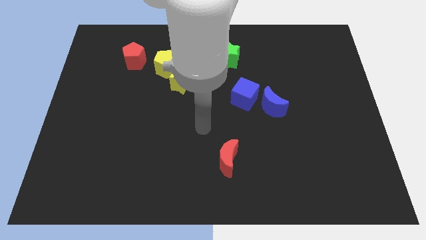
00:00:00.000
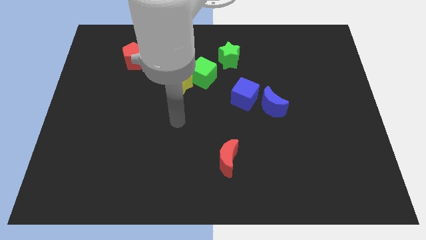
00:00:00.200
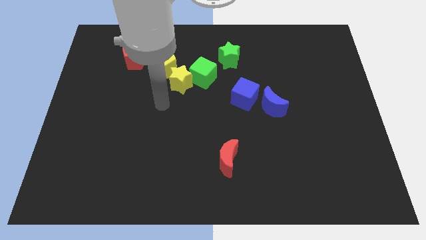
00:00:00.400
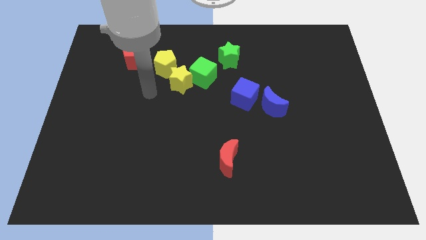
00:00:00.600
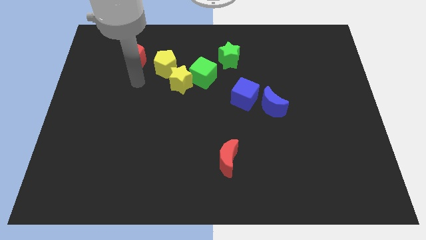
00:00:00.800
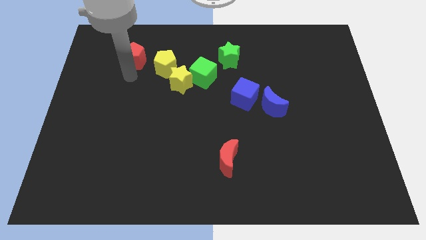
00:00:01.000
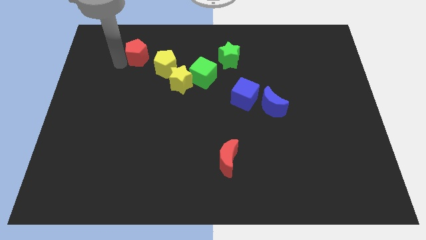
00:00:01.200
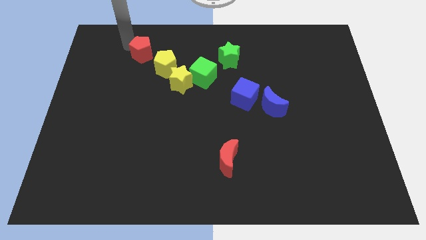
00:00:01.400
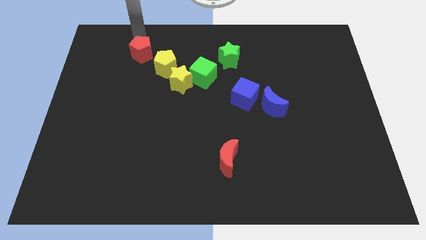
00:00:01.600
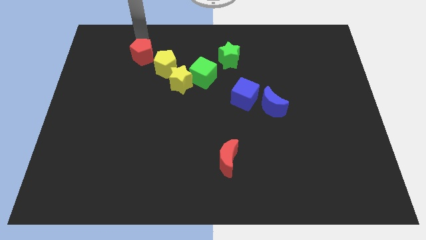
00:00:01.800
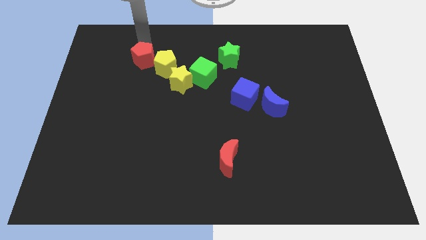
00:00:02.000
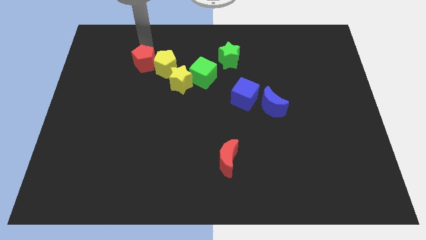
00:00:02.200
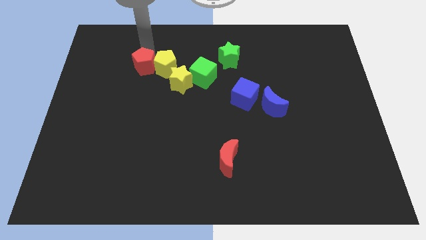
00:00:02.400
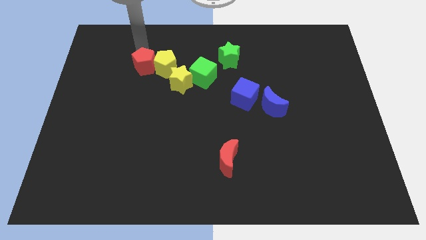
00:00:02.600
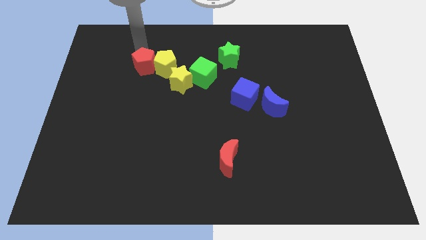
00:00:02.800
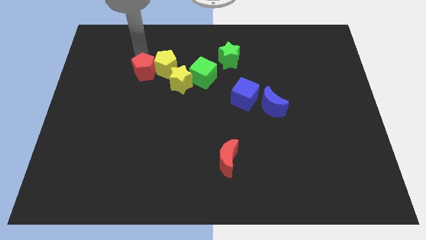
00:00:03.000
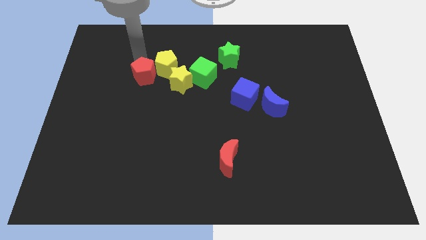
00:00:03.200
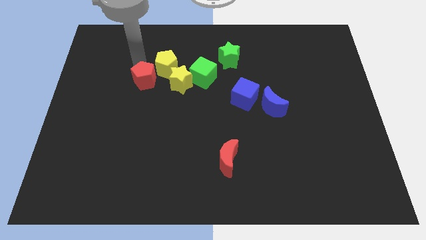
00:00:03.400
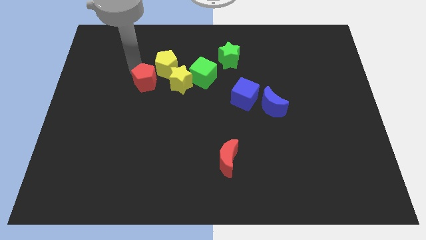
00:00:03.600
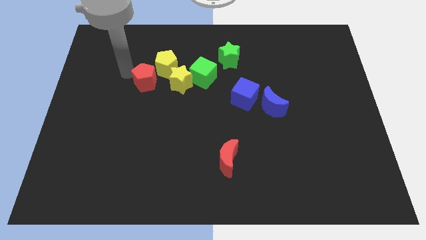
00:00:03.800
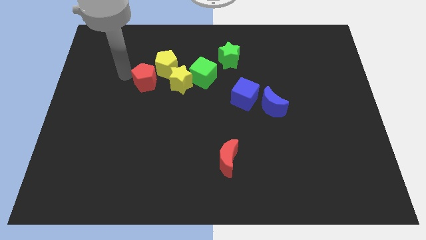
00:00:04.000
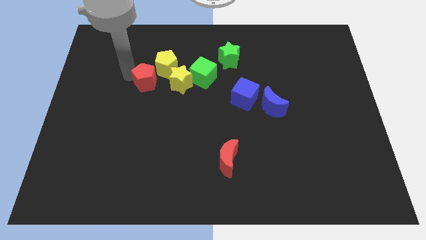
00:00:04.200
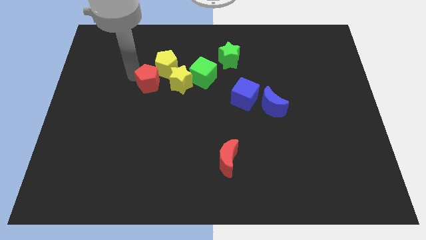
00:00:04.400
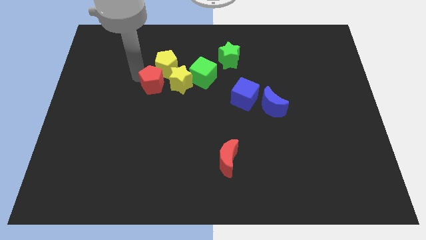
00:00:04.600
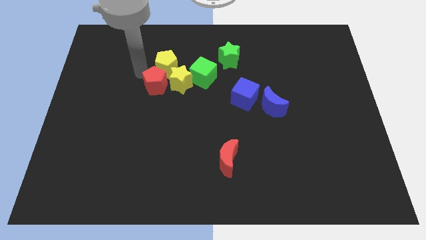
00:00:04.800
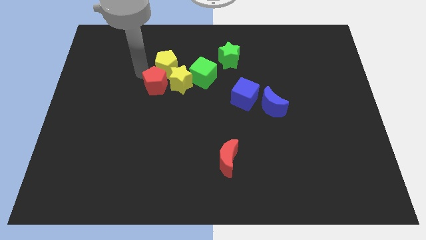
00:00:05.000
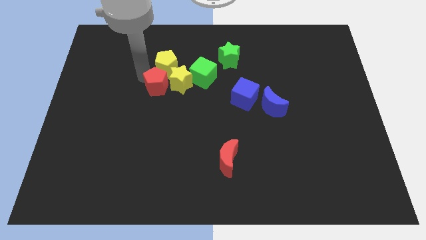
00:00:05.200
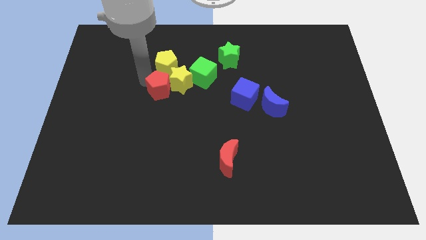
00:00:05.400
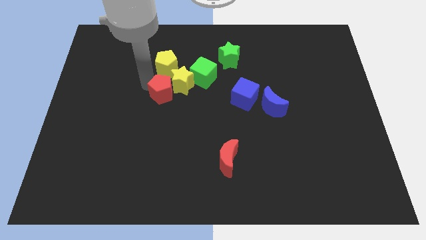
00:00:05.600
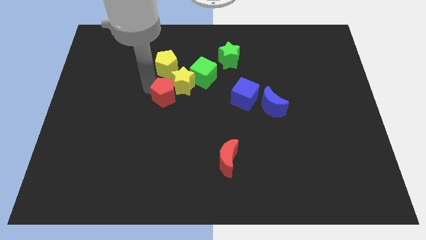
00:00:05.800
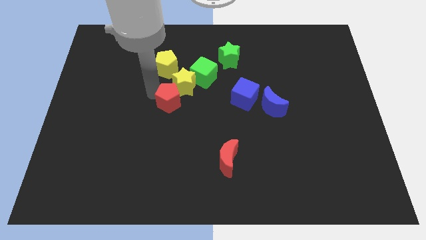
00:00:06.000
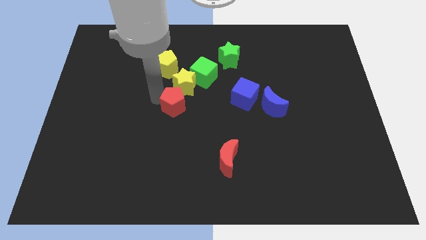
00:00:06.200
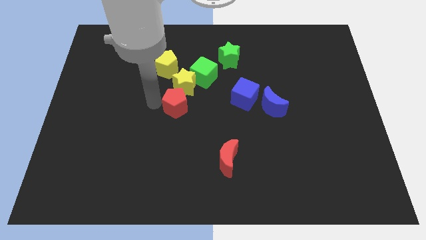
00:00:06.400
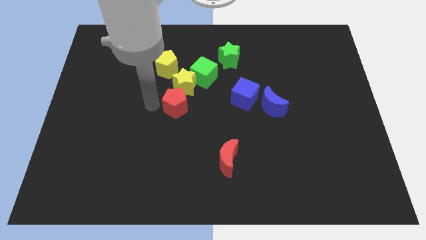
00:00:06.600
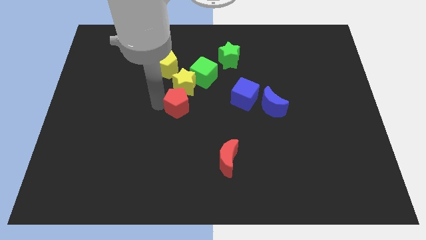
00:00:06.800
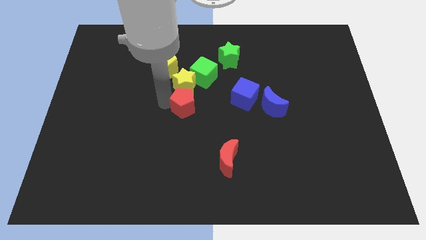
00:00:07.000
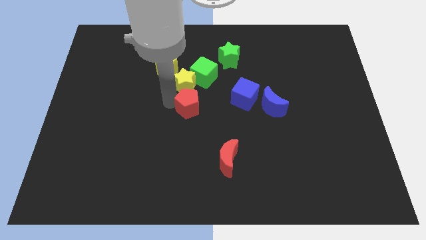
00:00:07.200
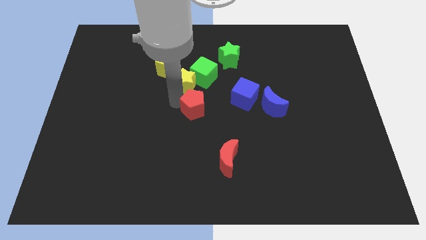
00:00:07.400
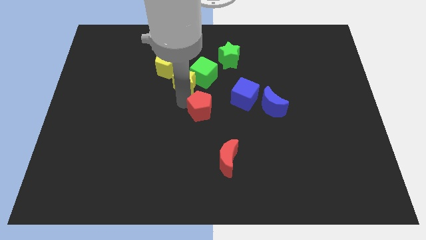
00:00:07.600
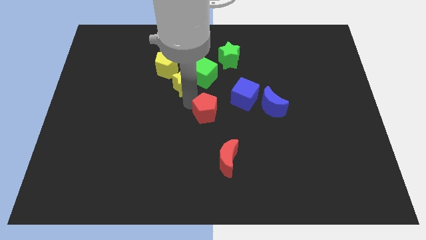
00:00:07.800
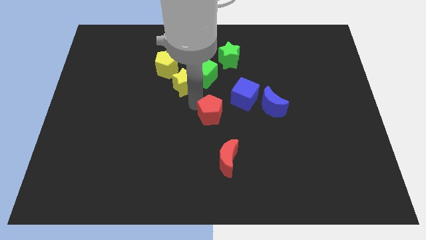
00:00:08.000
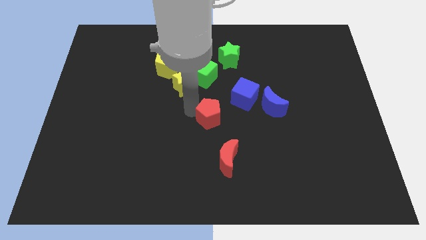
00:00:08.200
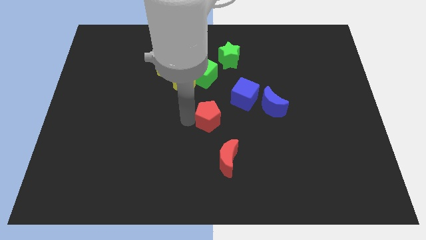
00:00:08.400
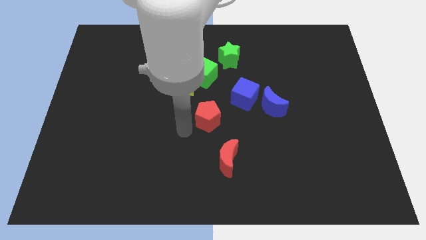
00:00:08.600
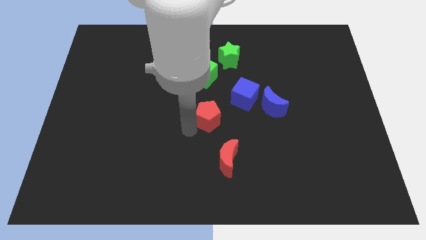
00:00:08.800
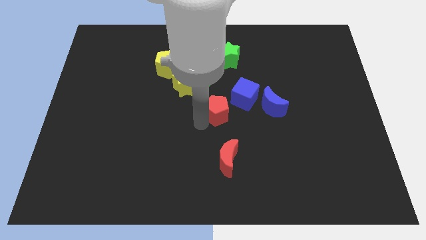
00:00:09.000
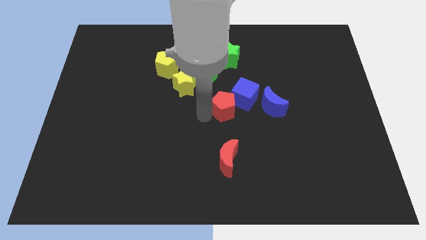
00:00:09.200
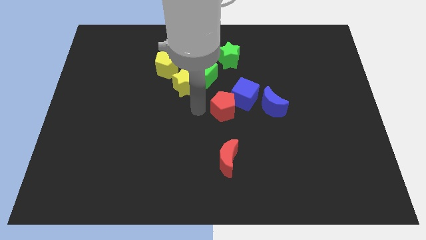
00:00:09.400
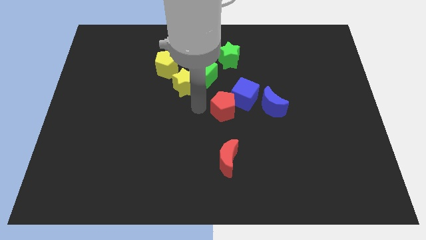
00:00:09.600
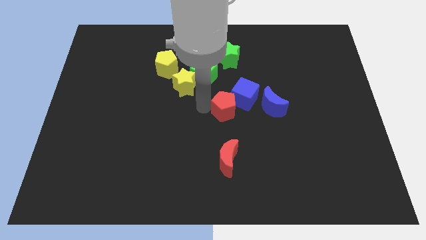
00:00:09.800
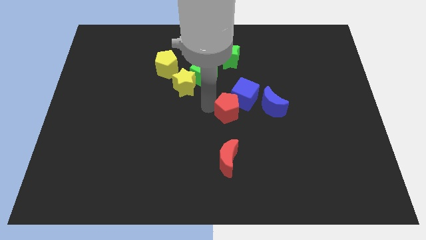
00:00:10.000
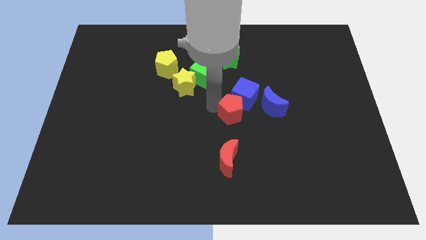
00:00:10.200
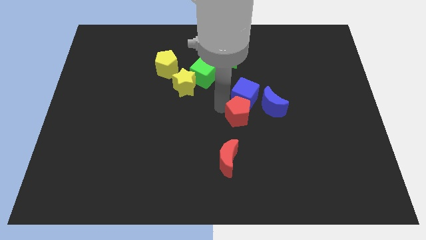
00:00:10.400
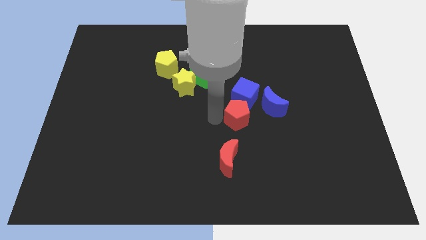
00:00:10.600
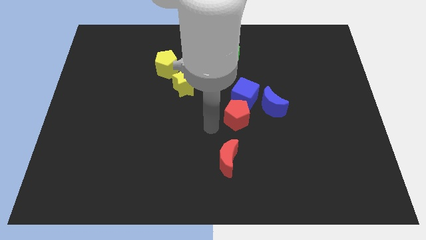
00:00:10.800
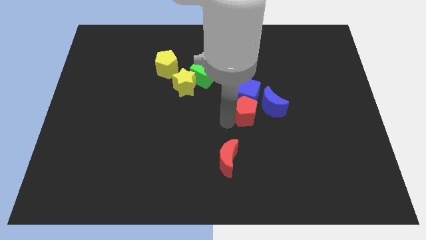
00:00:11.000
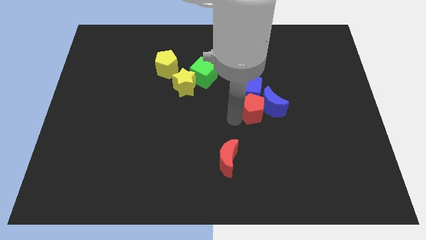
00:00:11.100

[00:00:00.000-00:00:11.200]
push the red pentagon next to the blue moon

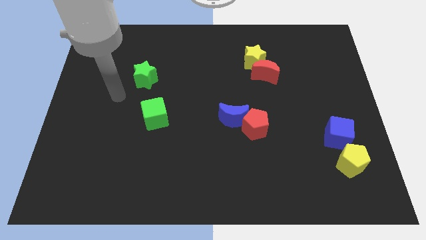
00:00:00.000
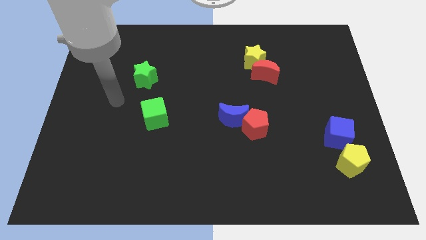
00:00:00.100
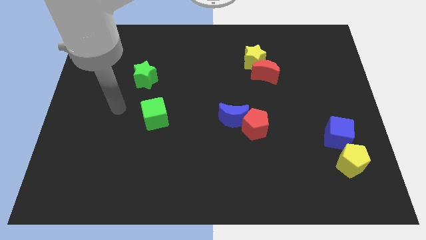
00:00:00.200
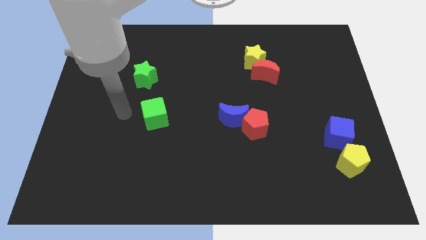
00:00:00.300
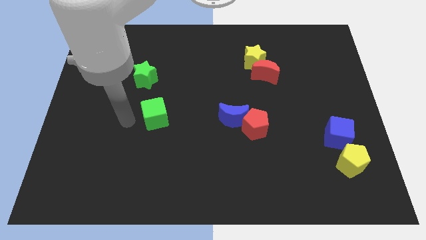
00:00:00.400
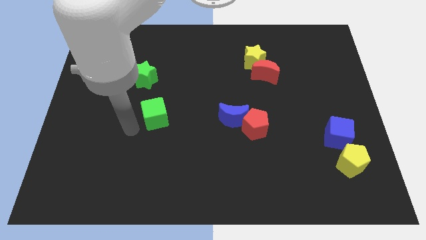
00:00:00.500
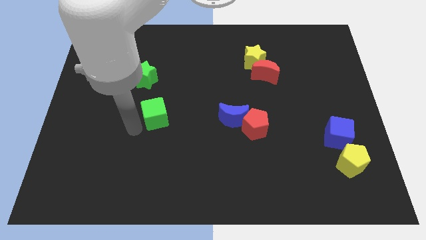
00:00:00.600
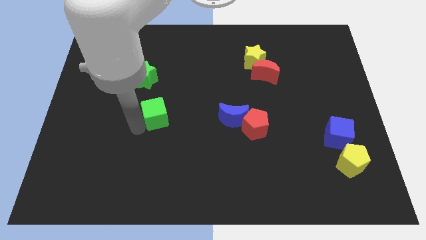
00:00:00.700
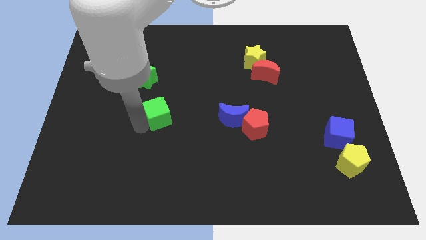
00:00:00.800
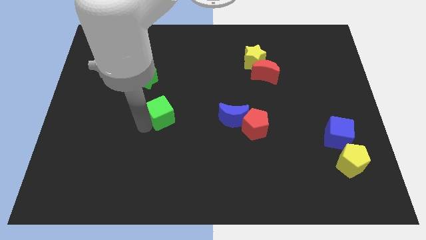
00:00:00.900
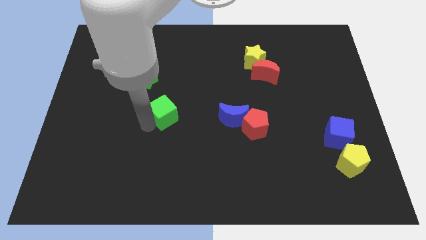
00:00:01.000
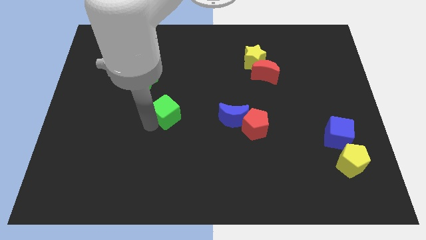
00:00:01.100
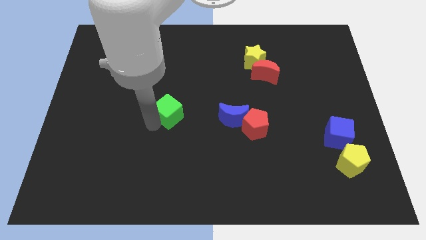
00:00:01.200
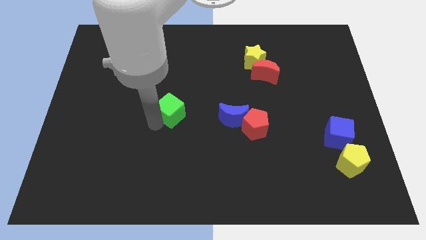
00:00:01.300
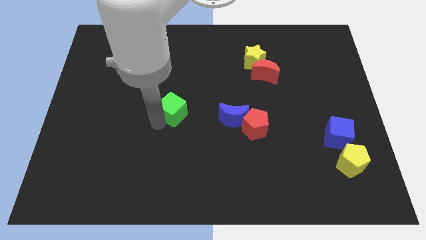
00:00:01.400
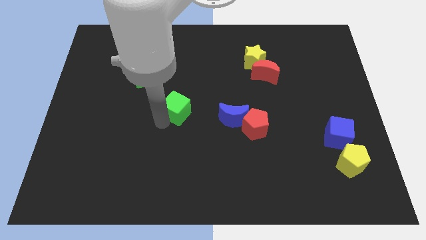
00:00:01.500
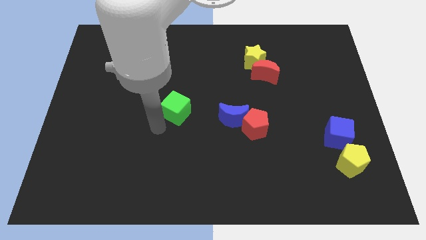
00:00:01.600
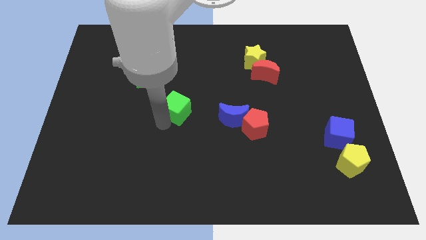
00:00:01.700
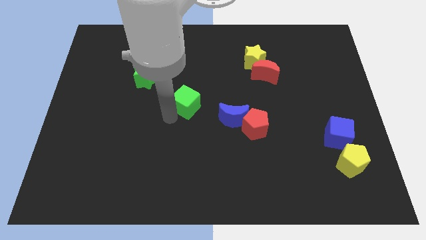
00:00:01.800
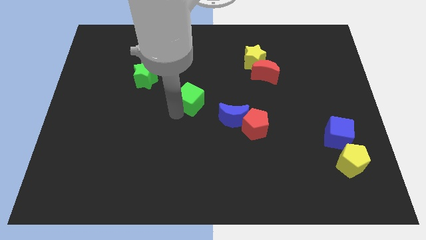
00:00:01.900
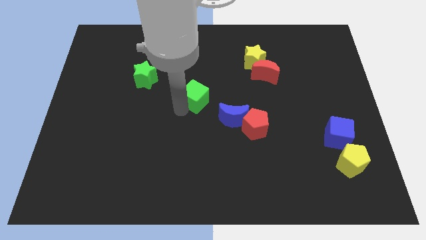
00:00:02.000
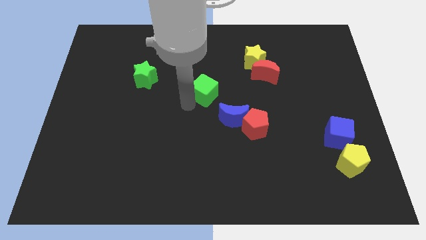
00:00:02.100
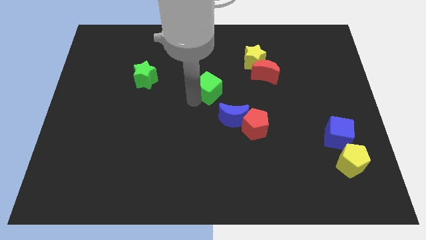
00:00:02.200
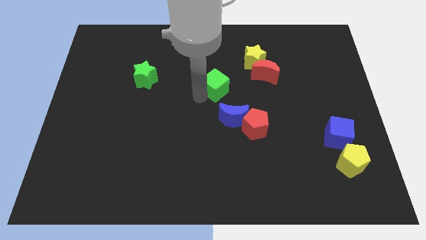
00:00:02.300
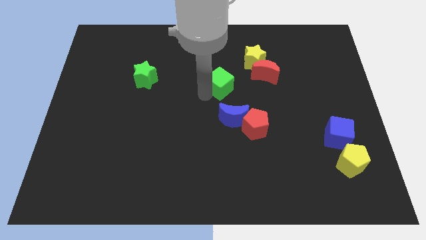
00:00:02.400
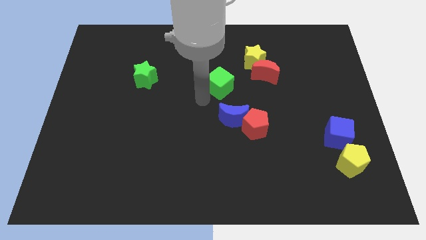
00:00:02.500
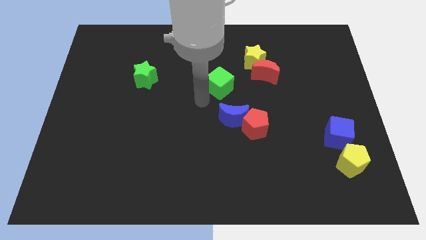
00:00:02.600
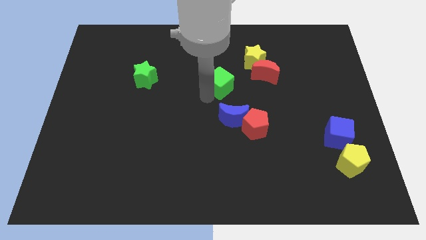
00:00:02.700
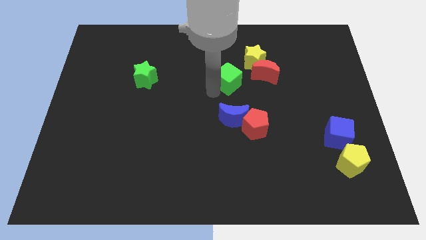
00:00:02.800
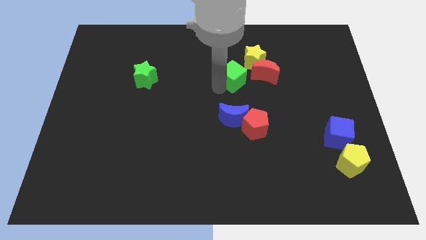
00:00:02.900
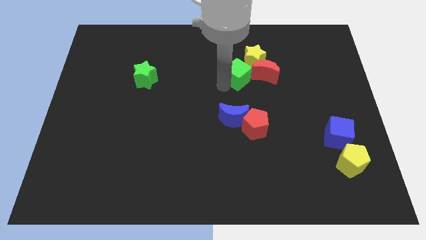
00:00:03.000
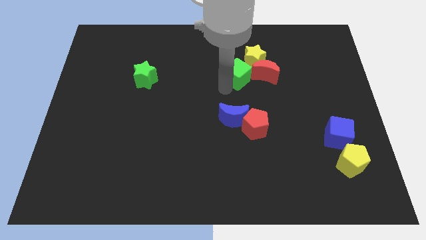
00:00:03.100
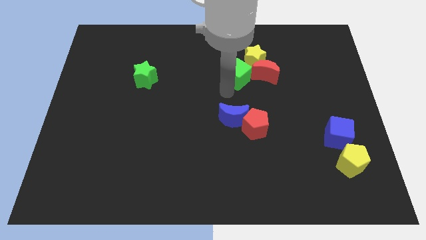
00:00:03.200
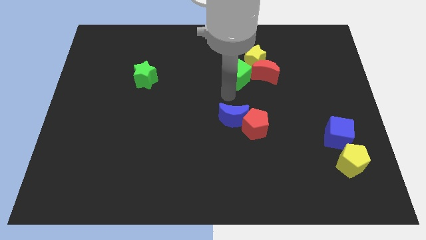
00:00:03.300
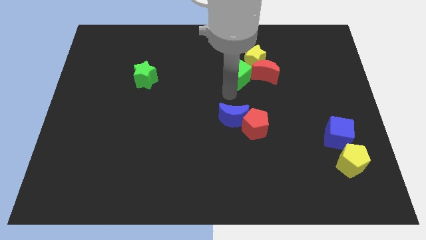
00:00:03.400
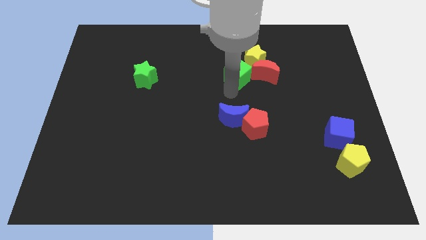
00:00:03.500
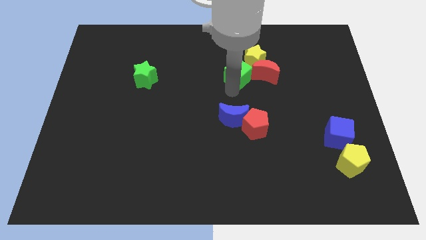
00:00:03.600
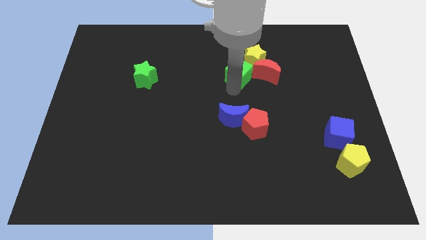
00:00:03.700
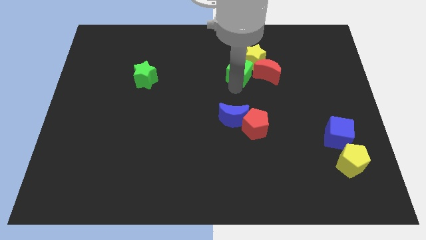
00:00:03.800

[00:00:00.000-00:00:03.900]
slide the green cube next to the yellow star
